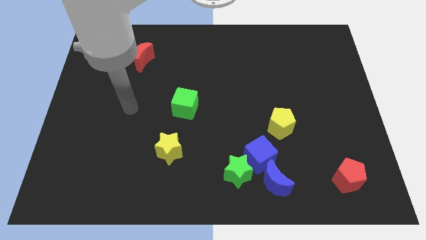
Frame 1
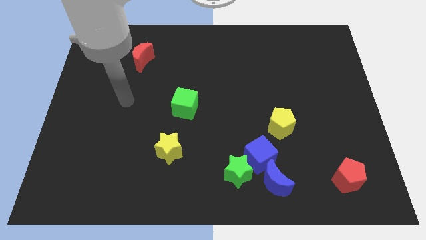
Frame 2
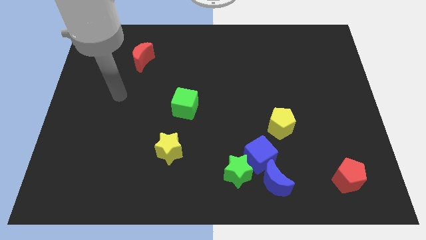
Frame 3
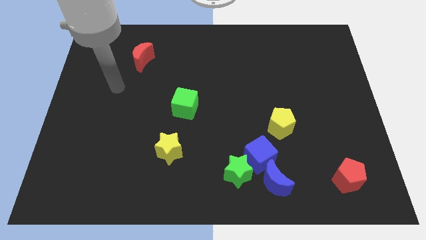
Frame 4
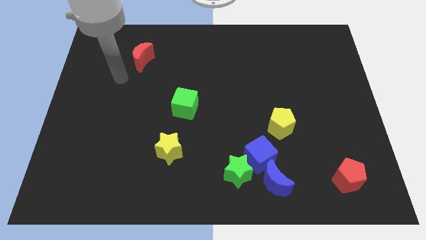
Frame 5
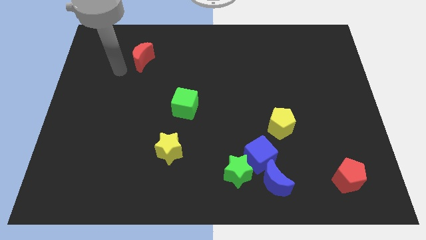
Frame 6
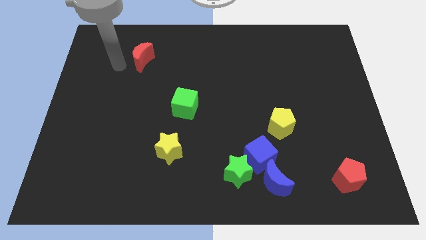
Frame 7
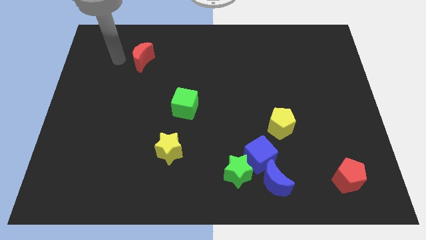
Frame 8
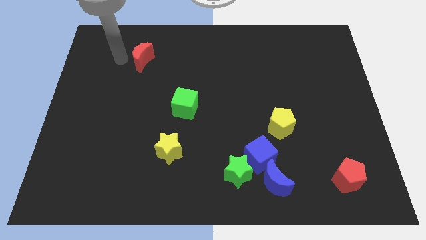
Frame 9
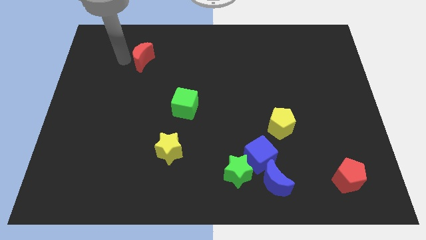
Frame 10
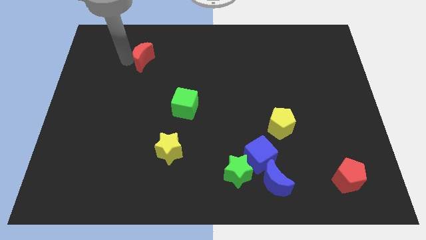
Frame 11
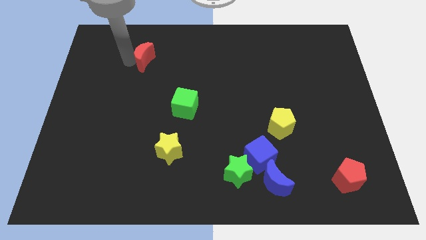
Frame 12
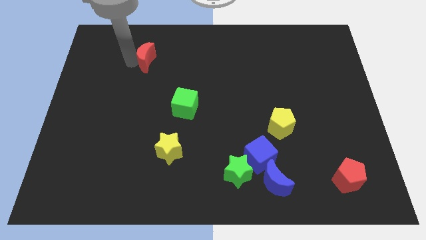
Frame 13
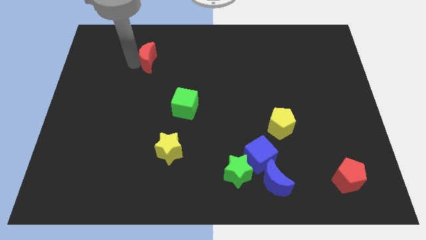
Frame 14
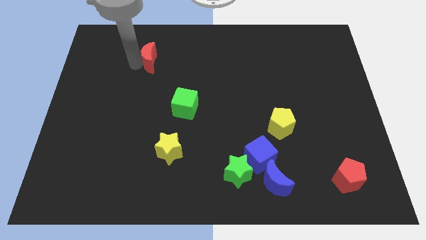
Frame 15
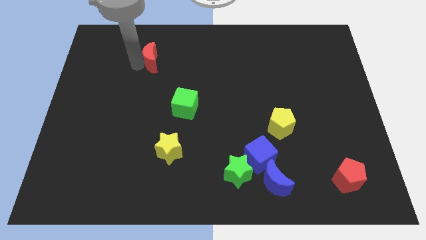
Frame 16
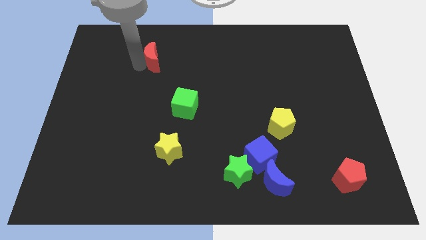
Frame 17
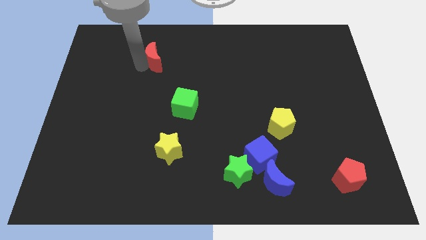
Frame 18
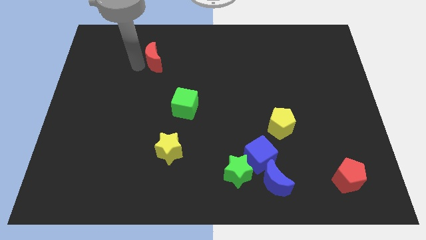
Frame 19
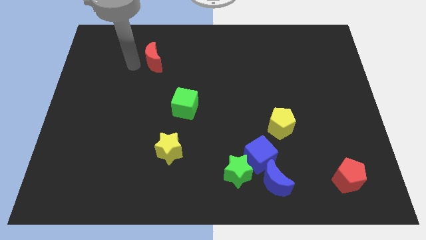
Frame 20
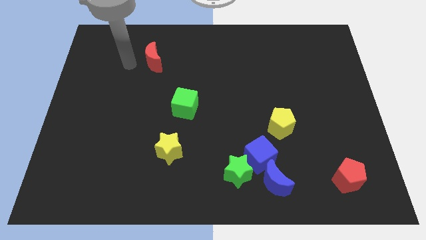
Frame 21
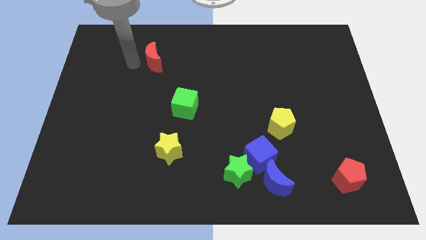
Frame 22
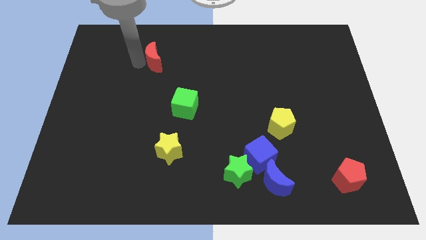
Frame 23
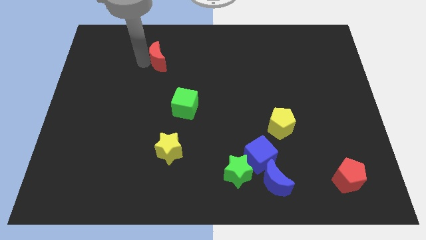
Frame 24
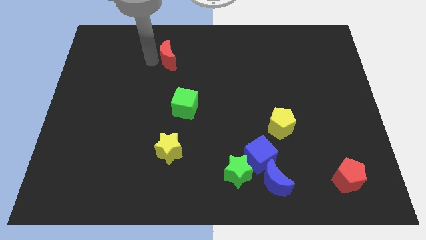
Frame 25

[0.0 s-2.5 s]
slide the red moon right somewhat

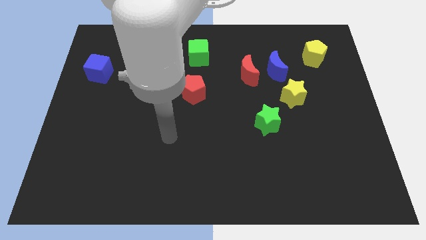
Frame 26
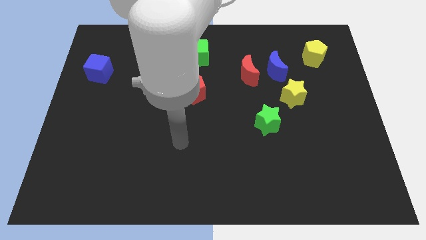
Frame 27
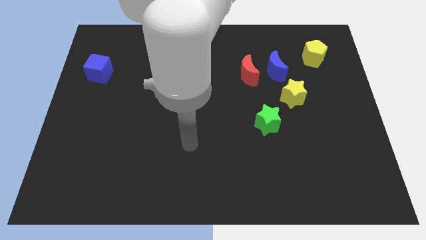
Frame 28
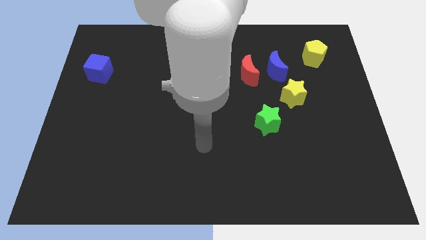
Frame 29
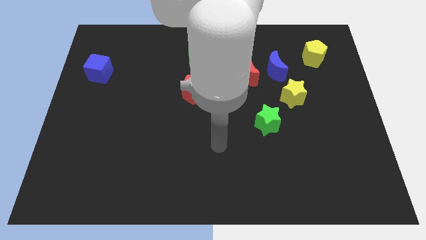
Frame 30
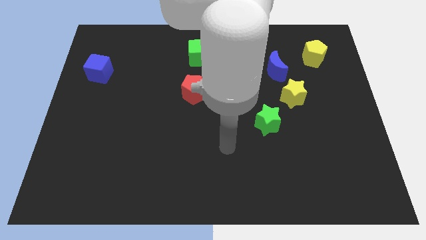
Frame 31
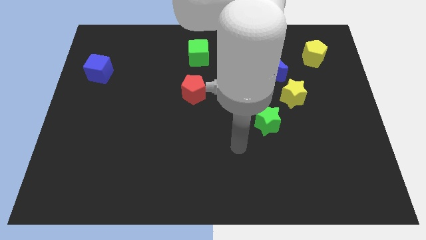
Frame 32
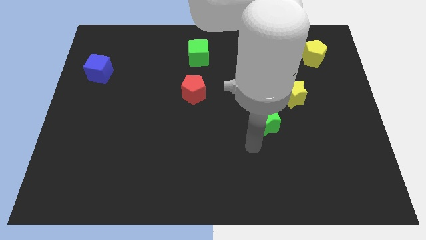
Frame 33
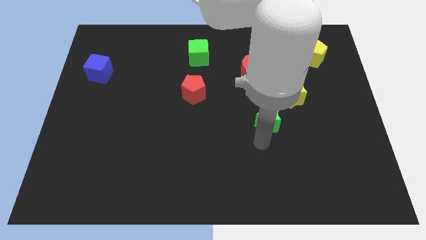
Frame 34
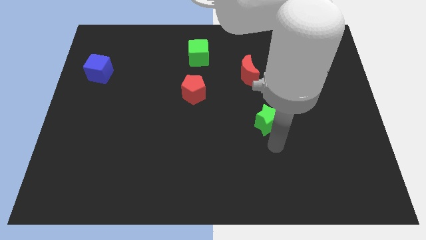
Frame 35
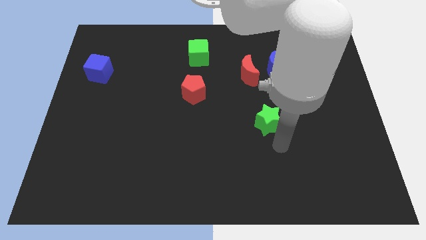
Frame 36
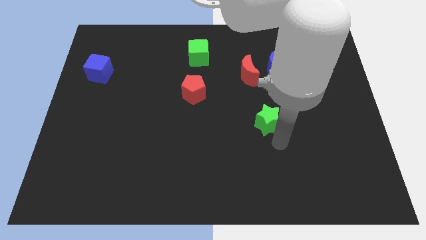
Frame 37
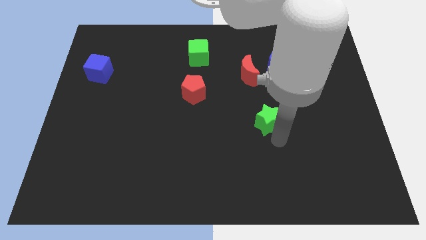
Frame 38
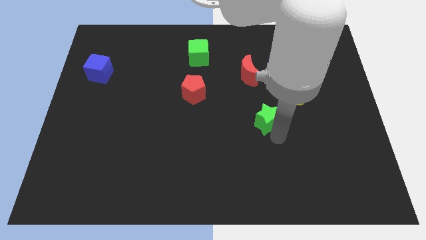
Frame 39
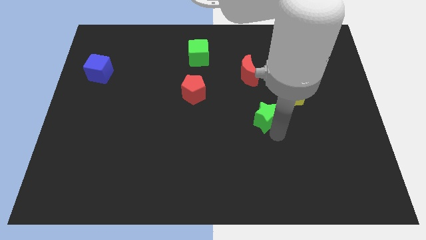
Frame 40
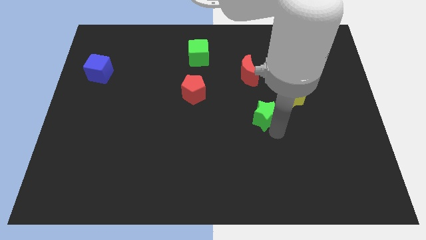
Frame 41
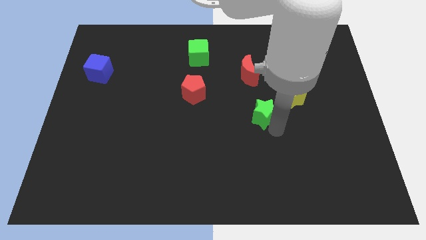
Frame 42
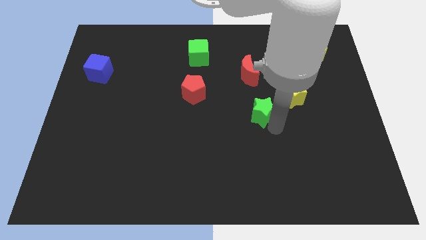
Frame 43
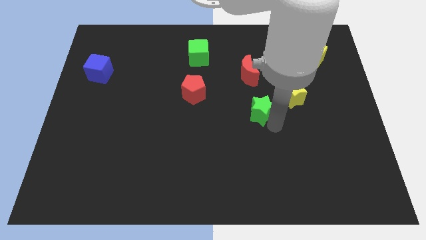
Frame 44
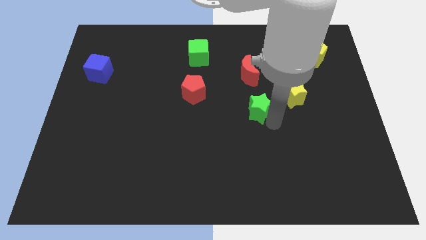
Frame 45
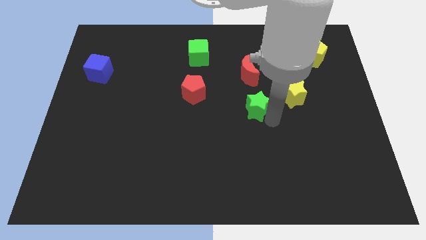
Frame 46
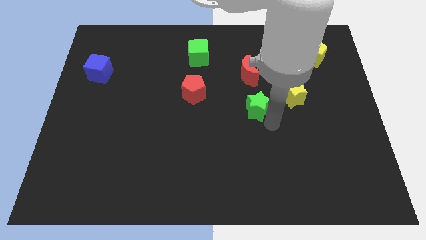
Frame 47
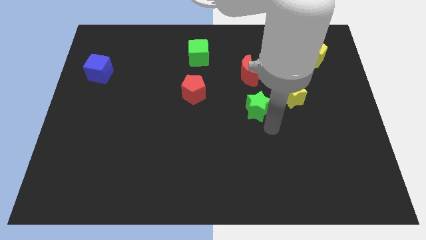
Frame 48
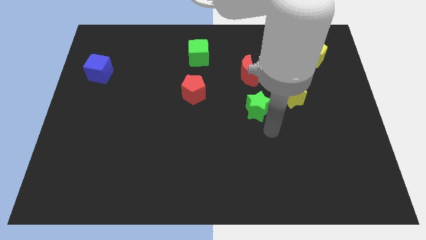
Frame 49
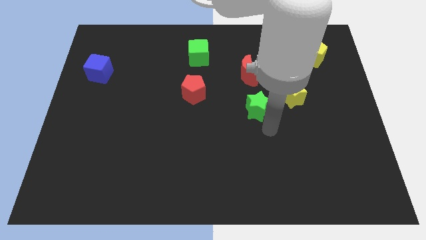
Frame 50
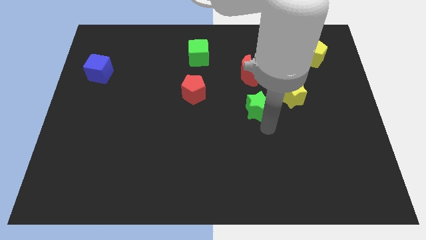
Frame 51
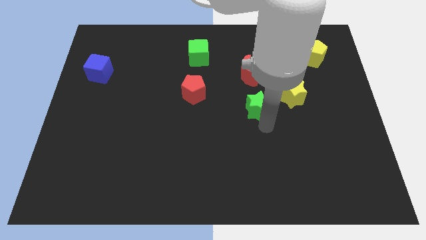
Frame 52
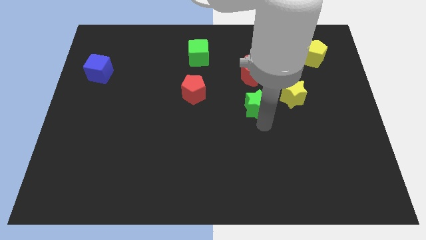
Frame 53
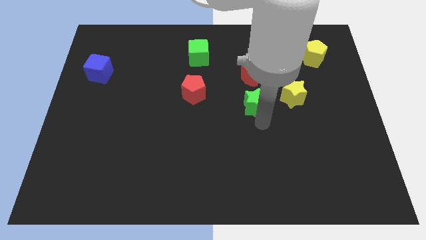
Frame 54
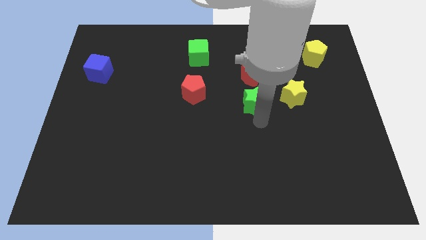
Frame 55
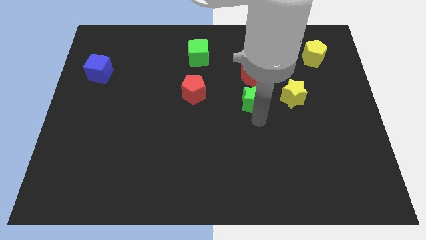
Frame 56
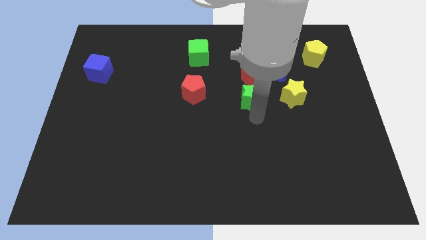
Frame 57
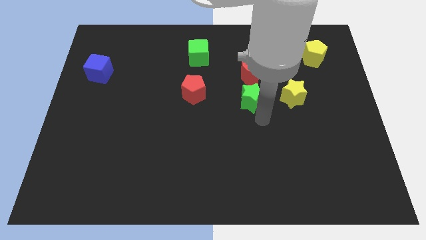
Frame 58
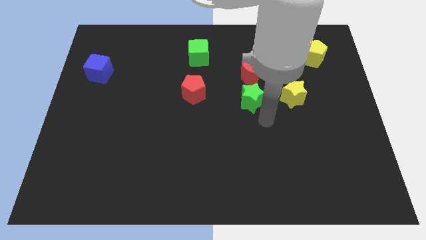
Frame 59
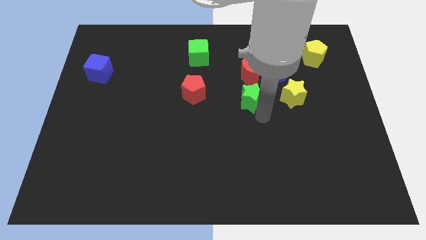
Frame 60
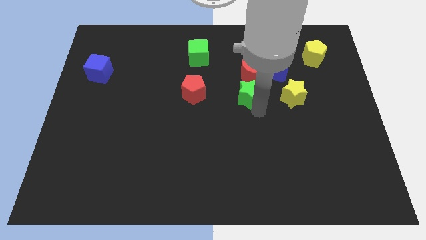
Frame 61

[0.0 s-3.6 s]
slide the green star up somewhat

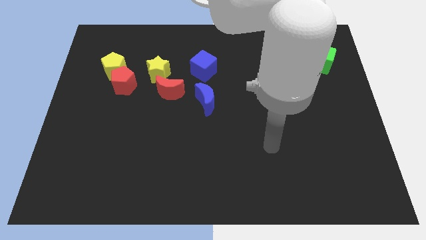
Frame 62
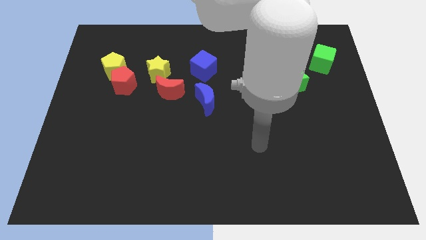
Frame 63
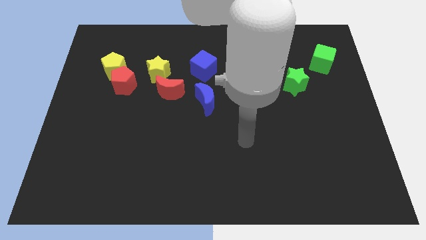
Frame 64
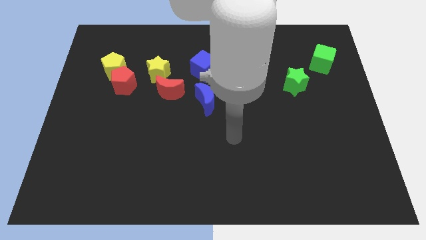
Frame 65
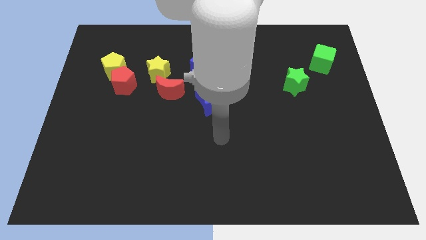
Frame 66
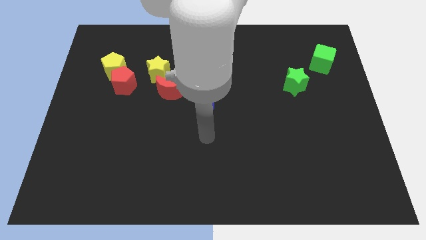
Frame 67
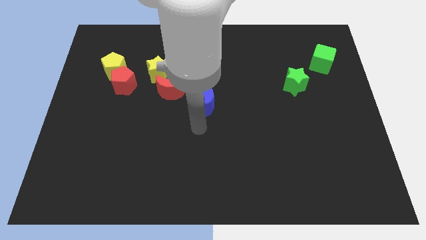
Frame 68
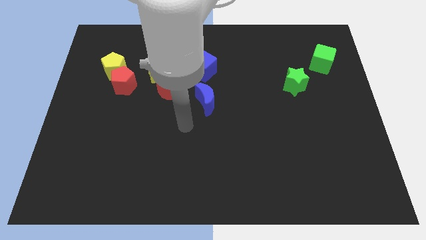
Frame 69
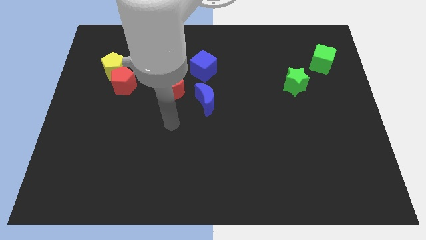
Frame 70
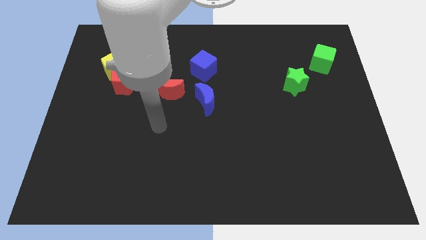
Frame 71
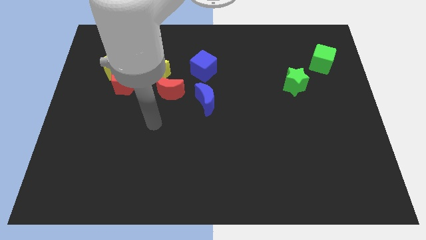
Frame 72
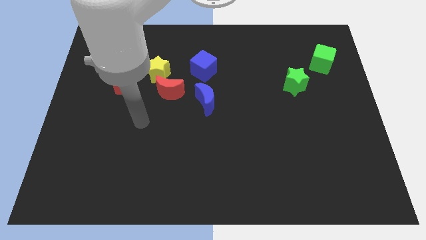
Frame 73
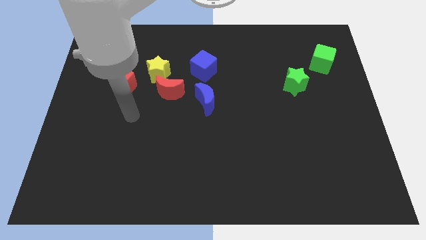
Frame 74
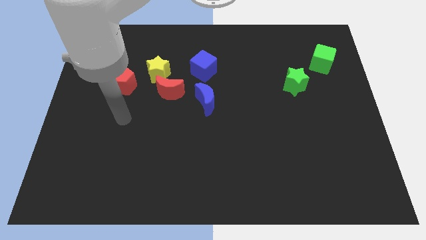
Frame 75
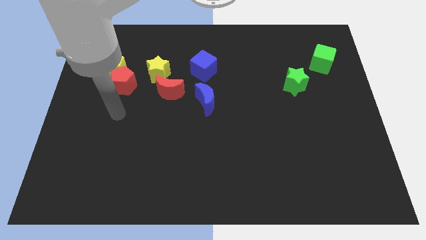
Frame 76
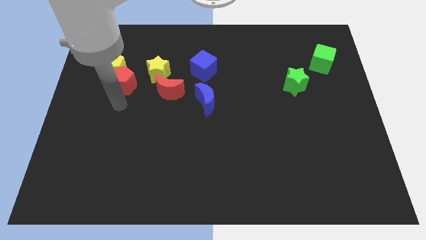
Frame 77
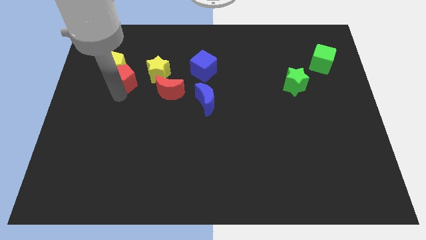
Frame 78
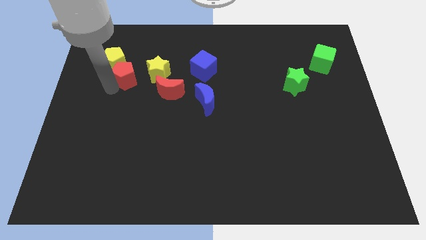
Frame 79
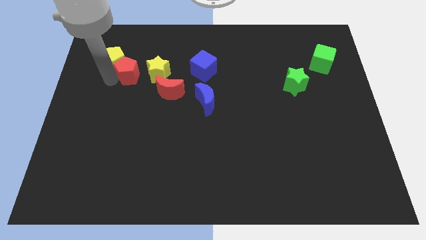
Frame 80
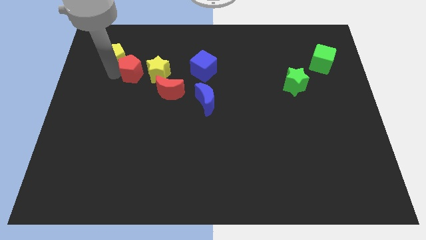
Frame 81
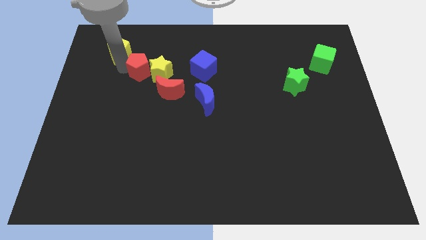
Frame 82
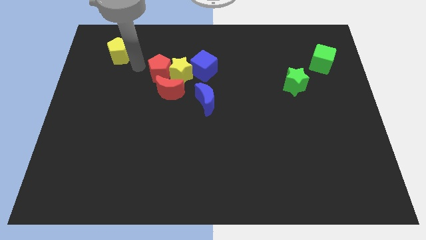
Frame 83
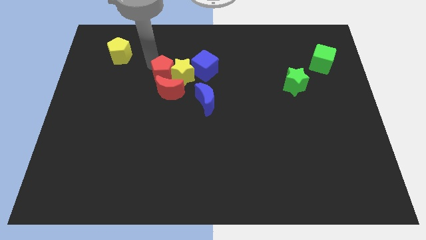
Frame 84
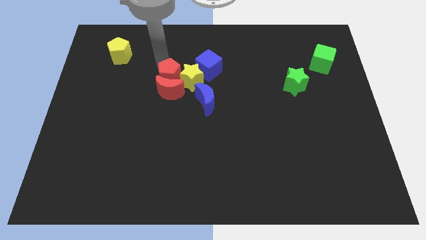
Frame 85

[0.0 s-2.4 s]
push the yellow star right a bit
